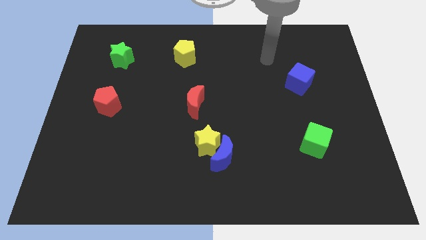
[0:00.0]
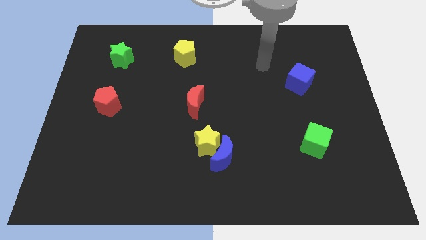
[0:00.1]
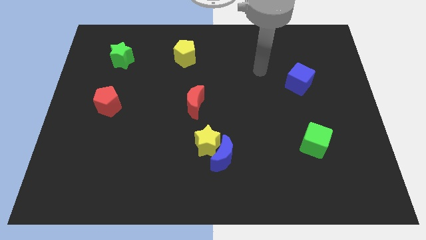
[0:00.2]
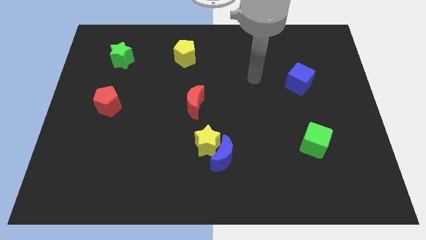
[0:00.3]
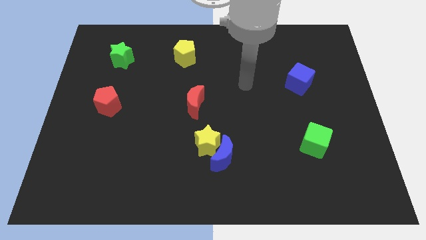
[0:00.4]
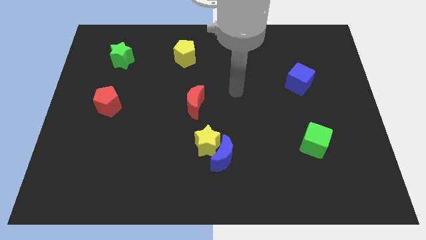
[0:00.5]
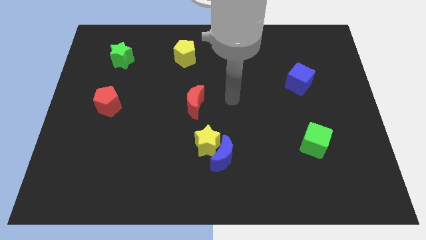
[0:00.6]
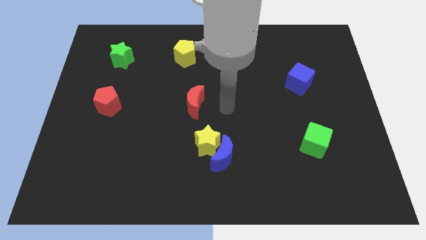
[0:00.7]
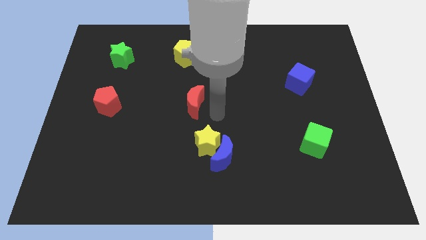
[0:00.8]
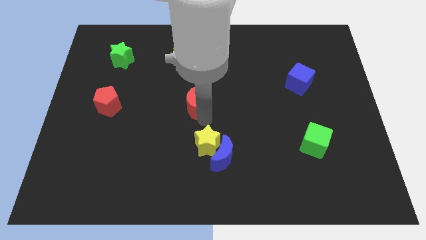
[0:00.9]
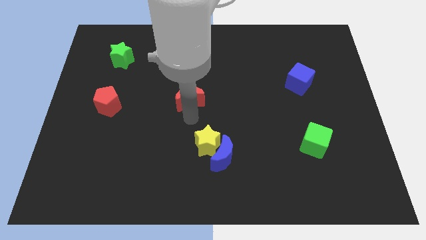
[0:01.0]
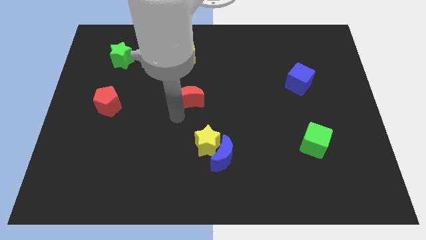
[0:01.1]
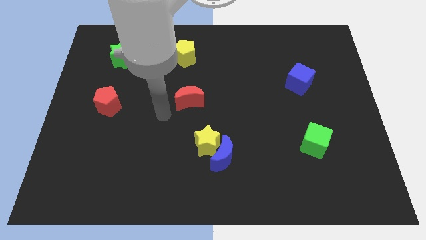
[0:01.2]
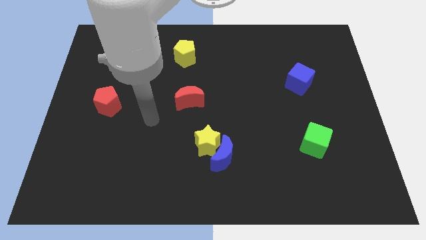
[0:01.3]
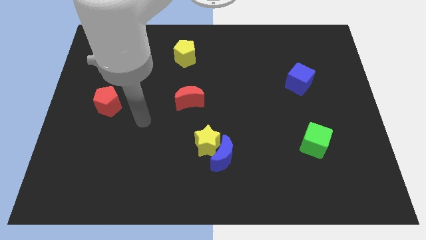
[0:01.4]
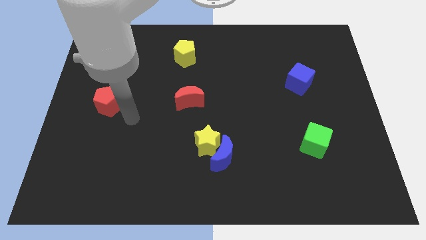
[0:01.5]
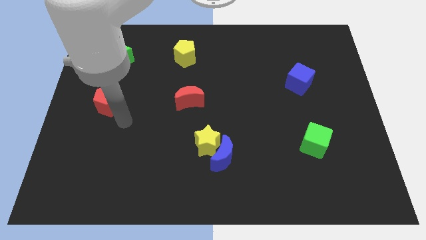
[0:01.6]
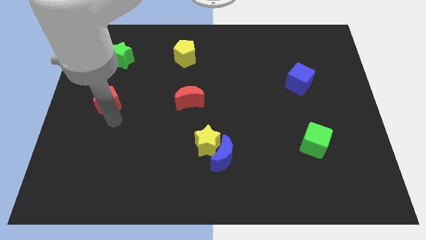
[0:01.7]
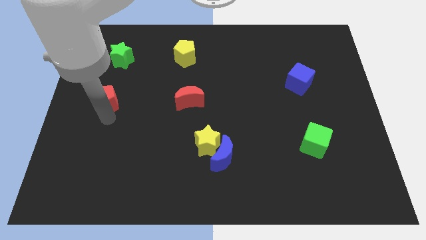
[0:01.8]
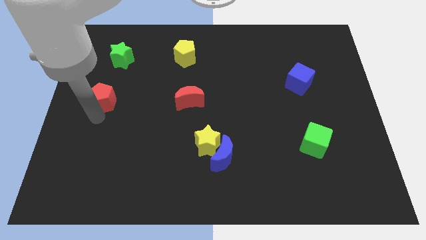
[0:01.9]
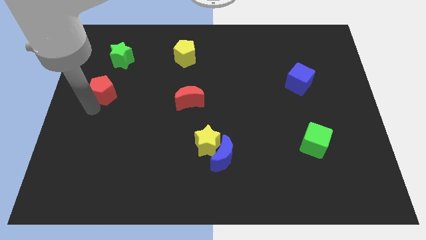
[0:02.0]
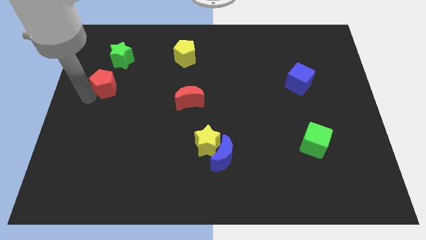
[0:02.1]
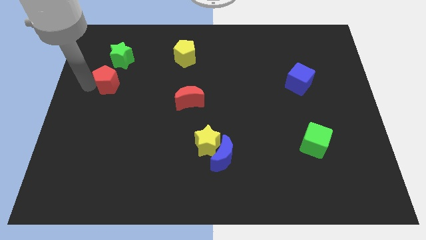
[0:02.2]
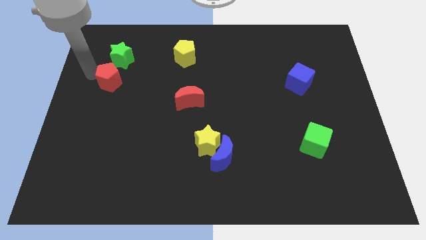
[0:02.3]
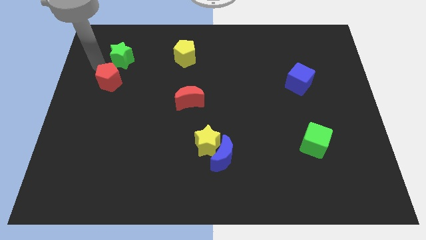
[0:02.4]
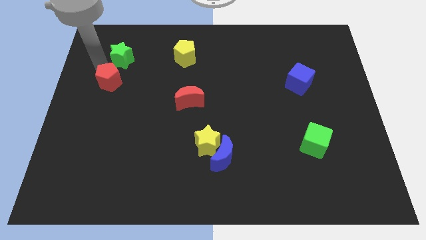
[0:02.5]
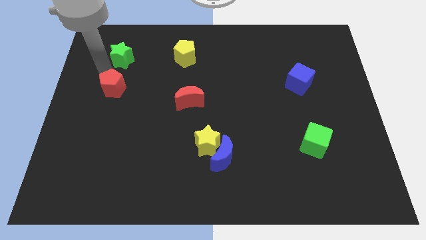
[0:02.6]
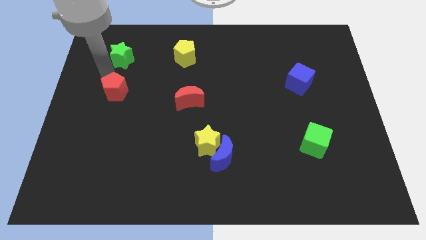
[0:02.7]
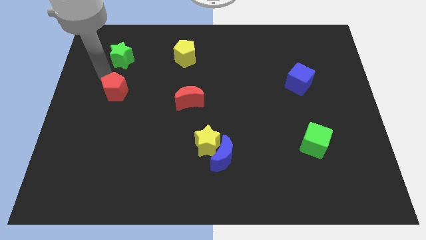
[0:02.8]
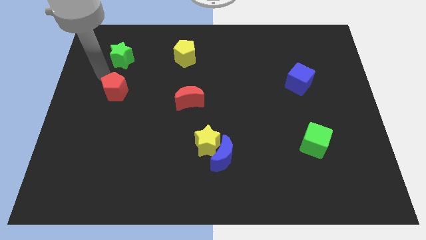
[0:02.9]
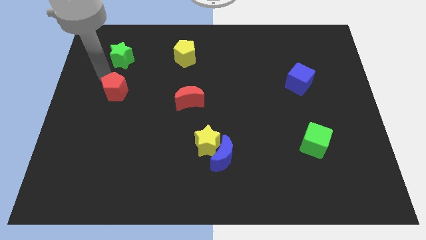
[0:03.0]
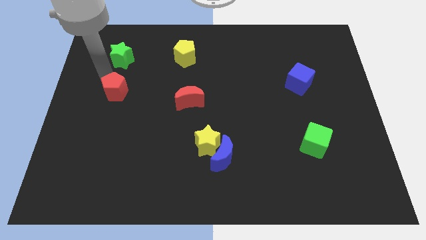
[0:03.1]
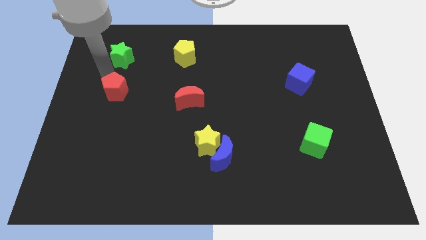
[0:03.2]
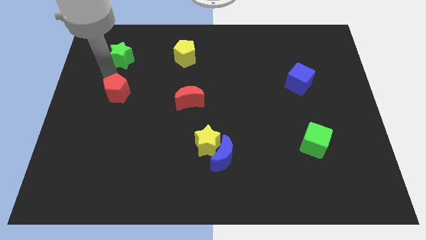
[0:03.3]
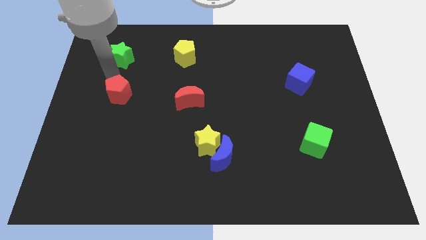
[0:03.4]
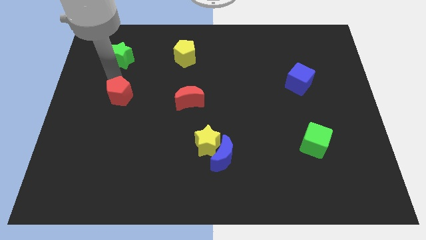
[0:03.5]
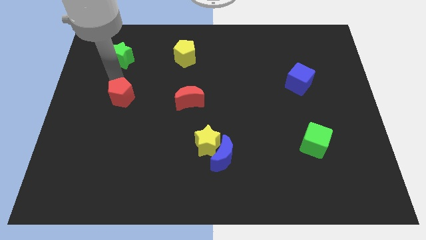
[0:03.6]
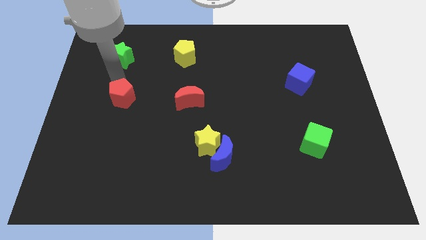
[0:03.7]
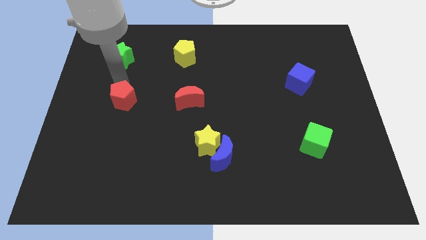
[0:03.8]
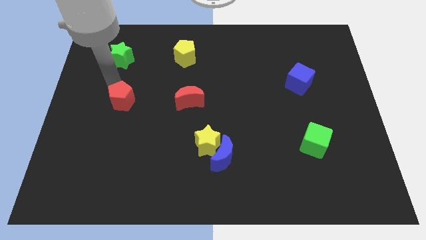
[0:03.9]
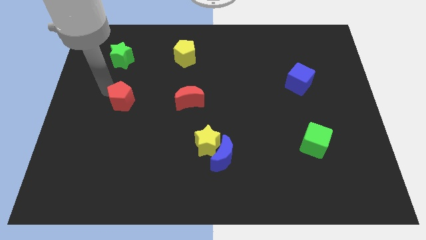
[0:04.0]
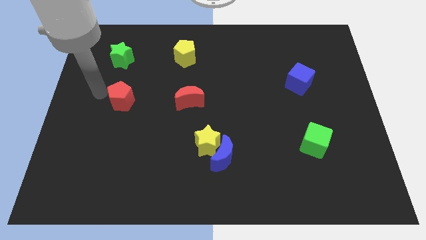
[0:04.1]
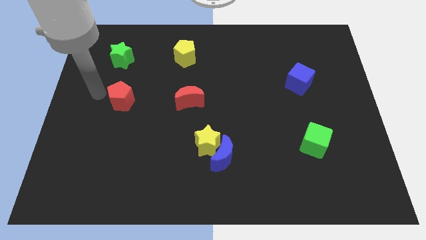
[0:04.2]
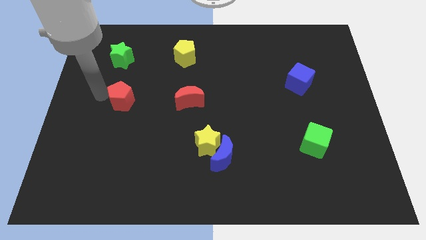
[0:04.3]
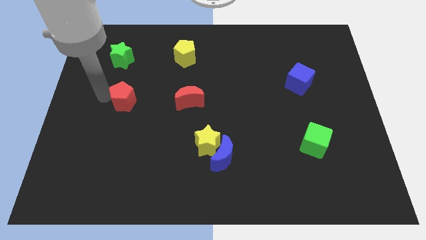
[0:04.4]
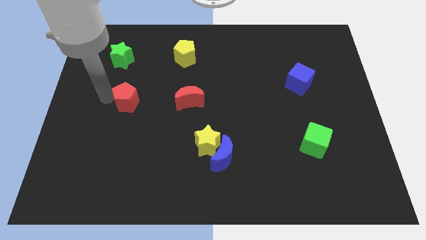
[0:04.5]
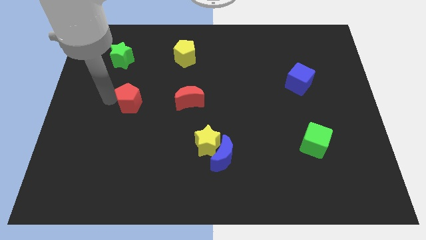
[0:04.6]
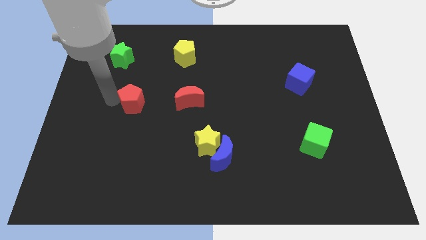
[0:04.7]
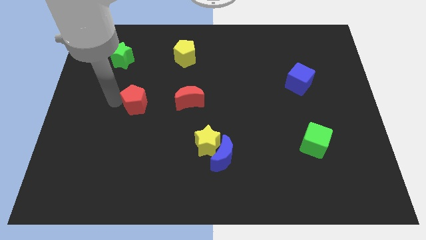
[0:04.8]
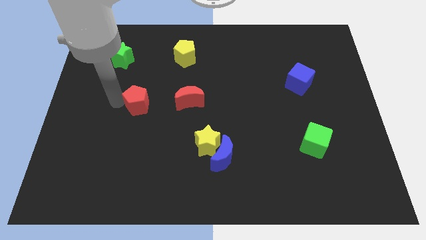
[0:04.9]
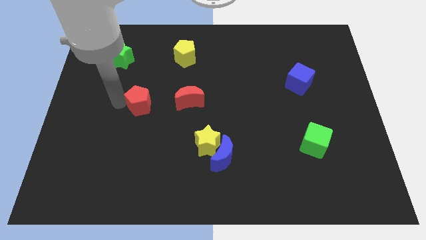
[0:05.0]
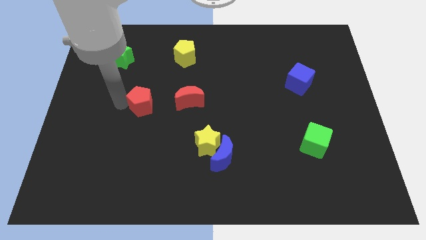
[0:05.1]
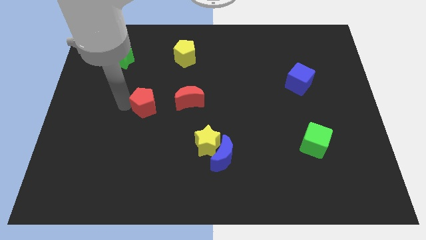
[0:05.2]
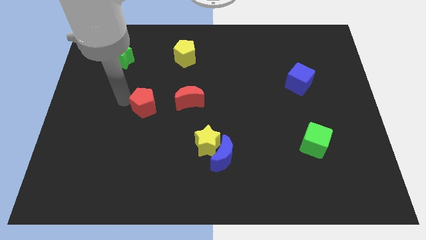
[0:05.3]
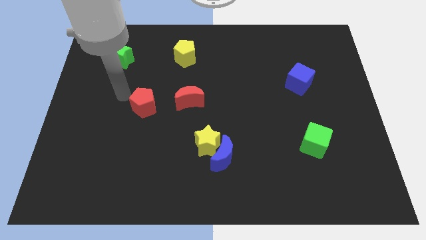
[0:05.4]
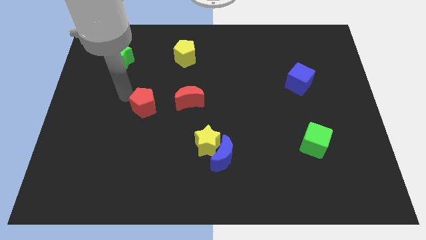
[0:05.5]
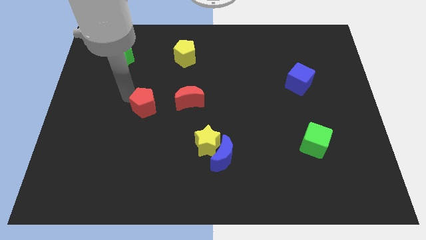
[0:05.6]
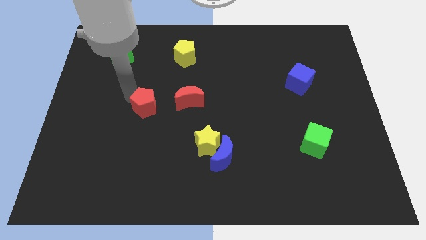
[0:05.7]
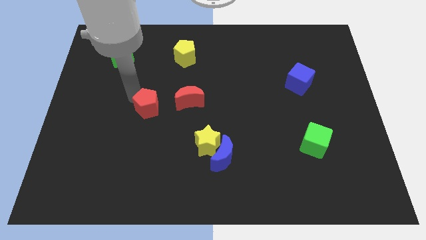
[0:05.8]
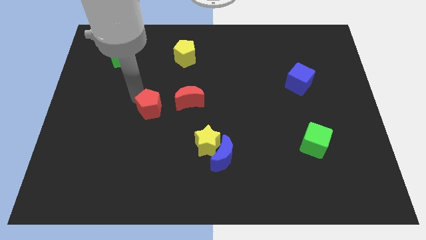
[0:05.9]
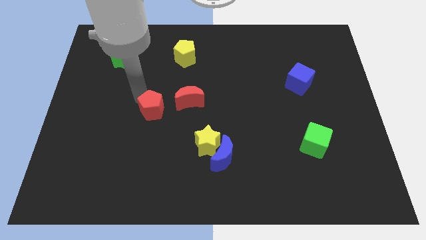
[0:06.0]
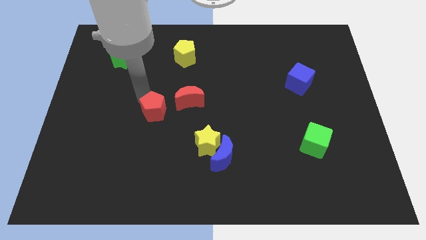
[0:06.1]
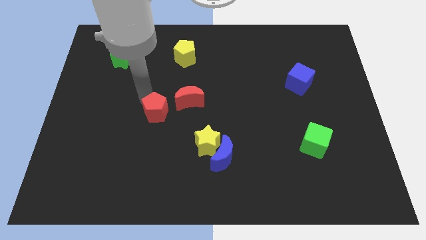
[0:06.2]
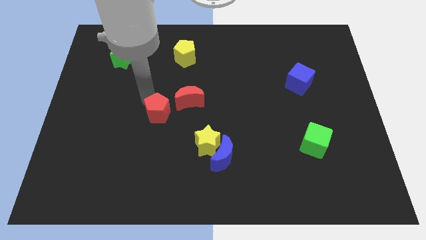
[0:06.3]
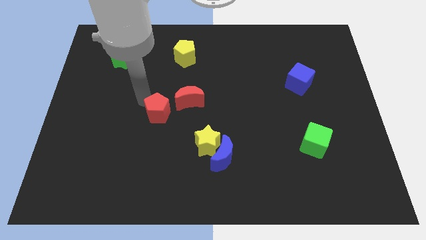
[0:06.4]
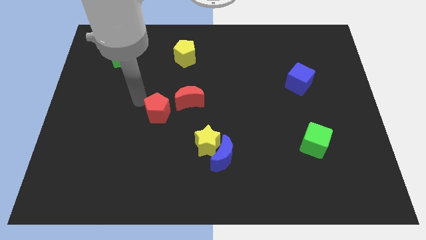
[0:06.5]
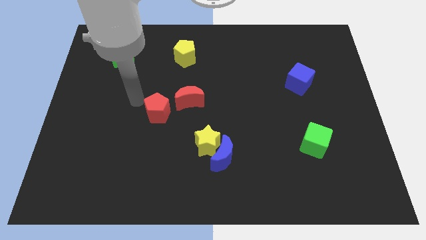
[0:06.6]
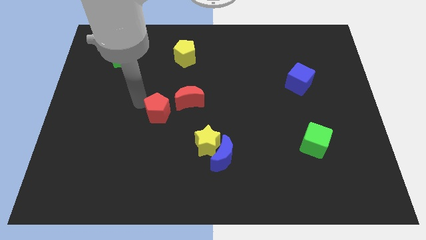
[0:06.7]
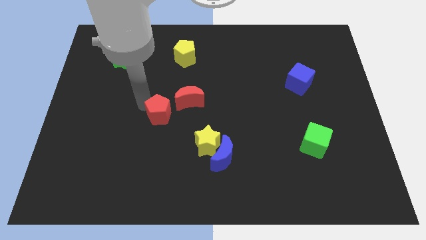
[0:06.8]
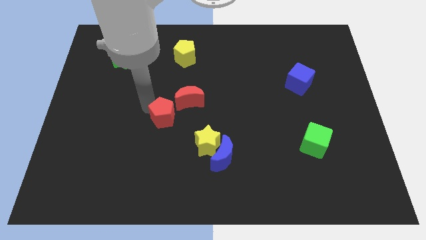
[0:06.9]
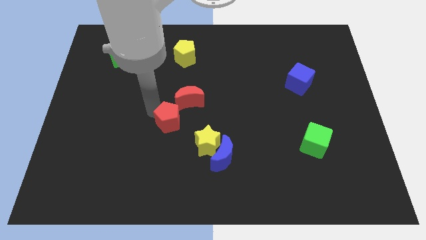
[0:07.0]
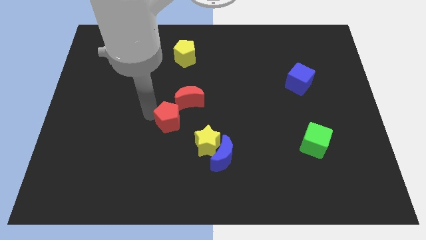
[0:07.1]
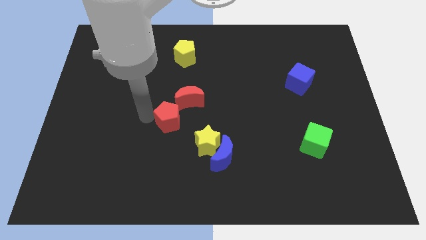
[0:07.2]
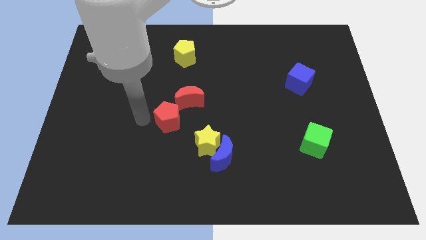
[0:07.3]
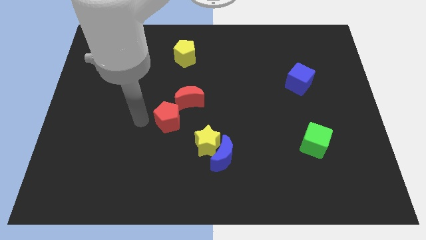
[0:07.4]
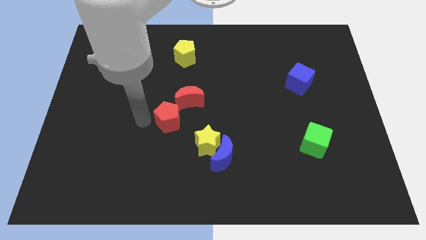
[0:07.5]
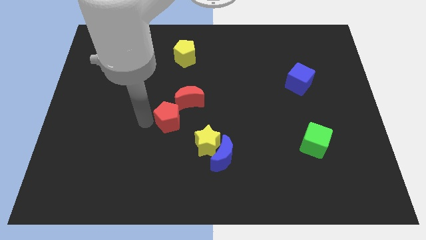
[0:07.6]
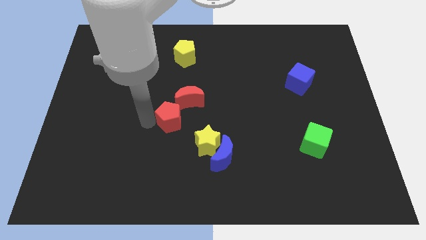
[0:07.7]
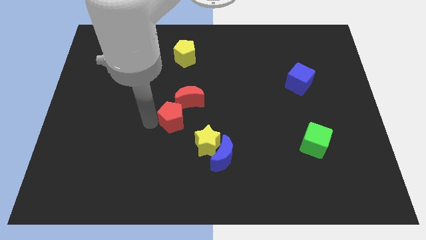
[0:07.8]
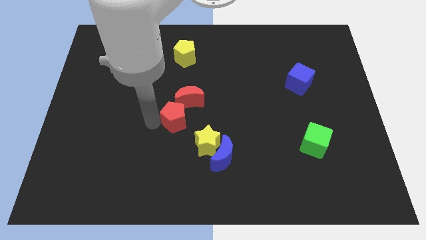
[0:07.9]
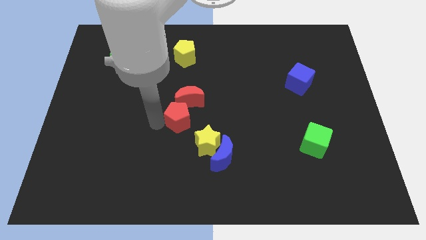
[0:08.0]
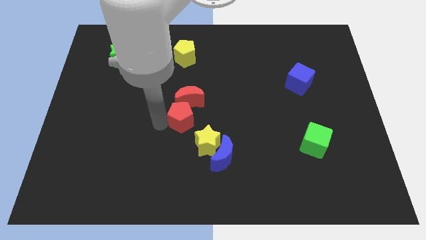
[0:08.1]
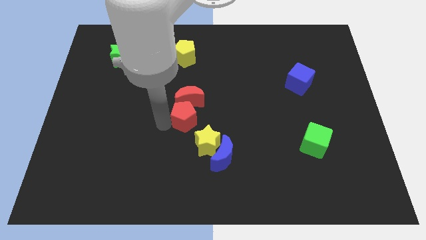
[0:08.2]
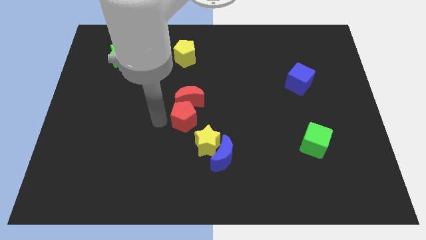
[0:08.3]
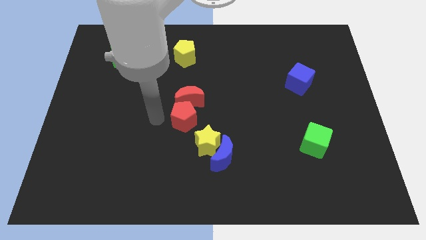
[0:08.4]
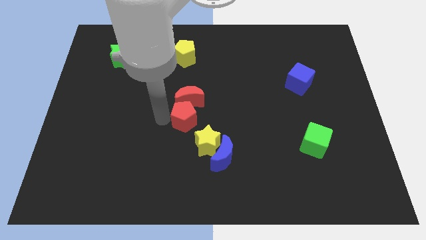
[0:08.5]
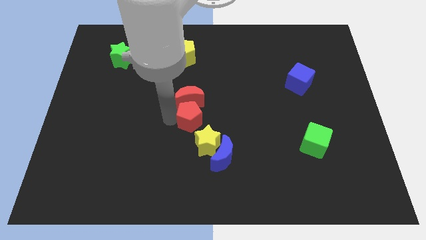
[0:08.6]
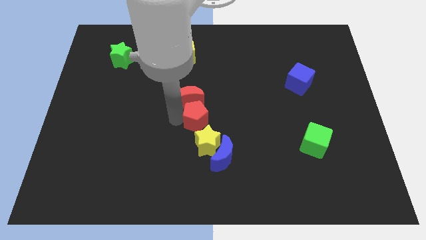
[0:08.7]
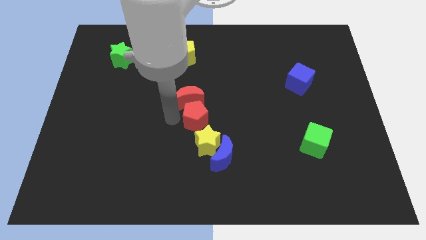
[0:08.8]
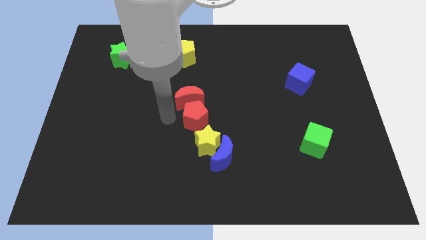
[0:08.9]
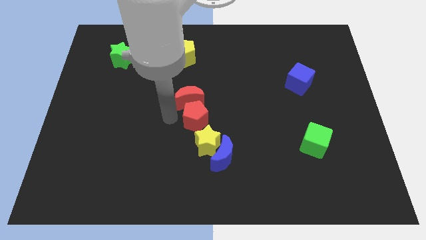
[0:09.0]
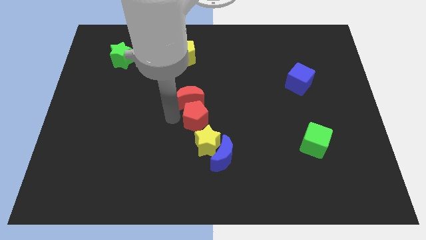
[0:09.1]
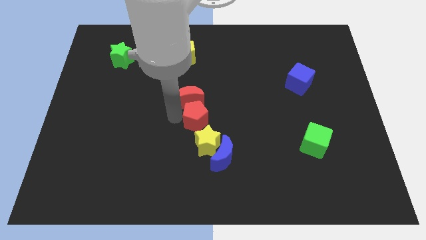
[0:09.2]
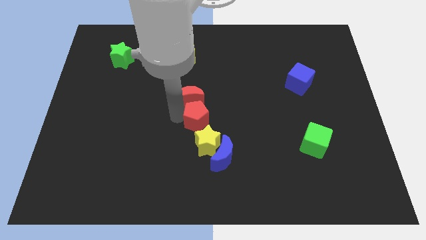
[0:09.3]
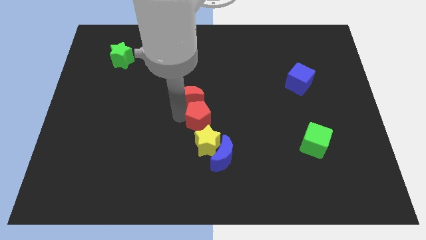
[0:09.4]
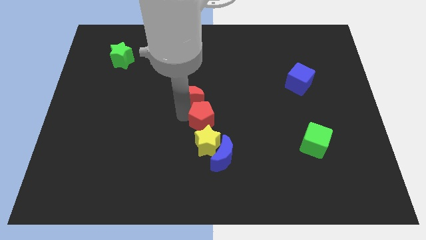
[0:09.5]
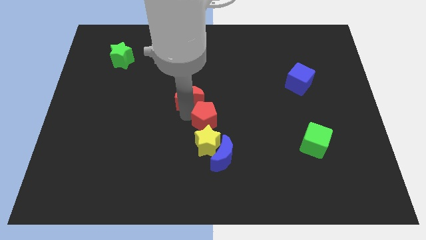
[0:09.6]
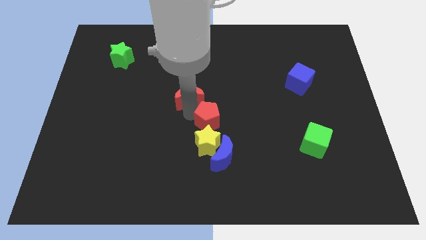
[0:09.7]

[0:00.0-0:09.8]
slide the red pentagon to the top right of the yellow star
